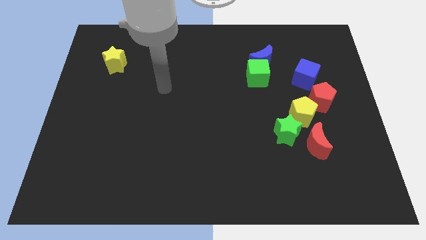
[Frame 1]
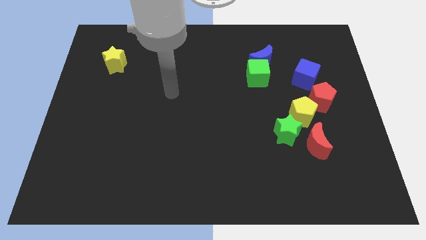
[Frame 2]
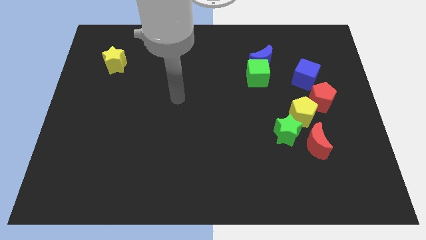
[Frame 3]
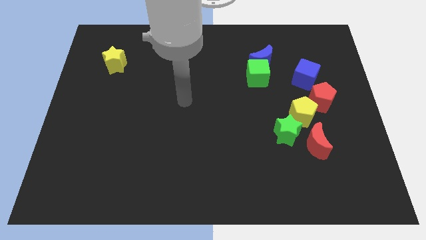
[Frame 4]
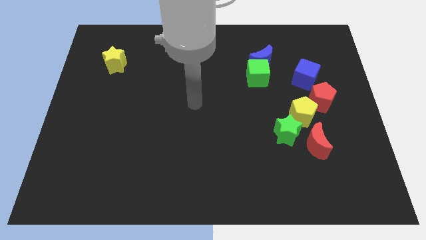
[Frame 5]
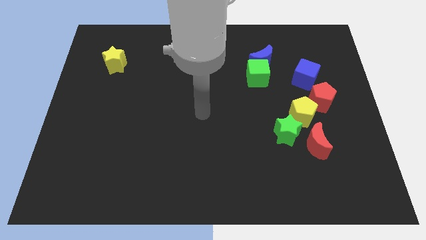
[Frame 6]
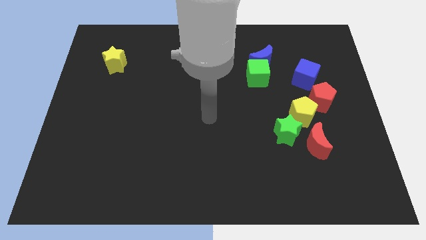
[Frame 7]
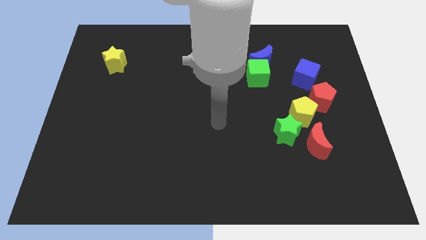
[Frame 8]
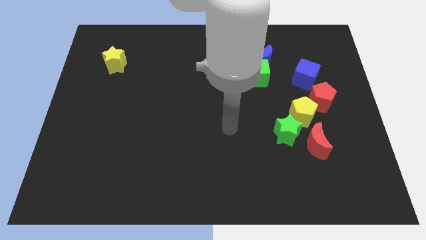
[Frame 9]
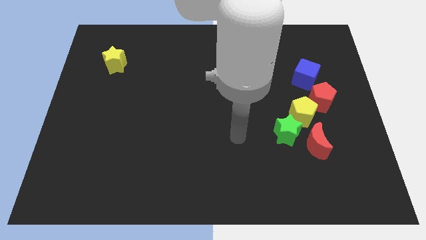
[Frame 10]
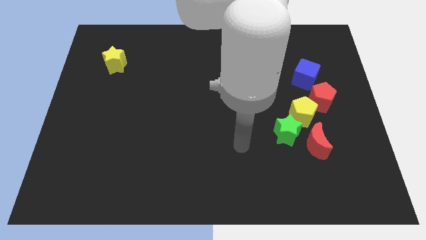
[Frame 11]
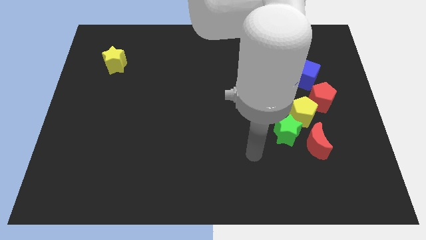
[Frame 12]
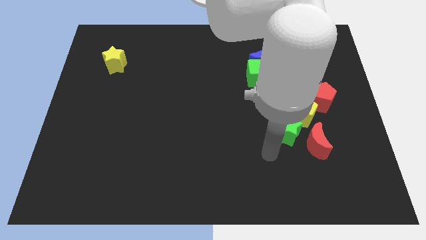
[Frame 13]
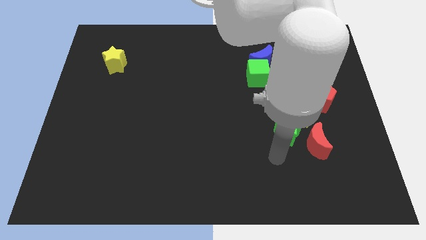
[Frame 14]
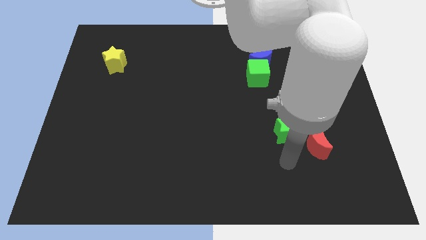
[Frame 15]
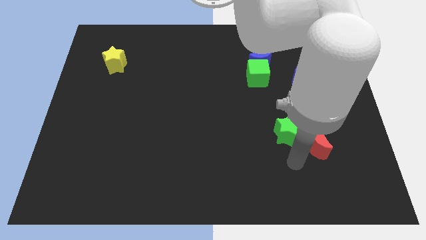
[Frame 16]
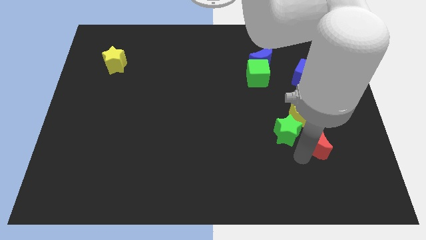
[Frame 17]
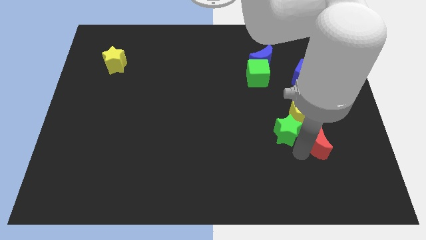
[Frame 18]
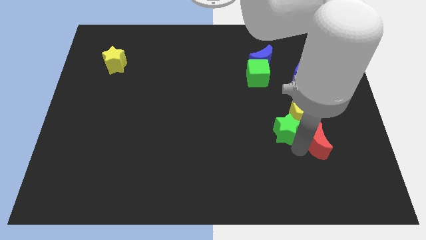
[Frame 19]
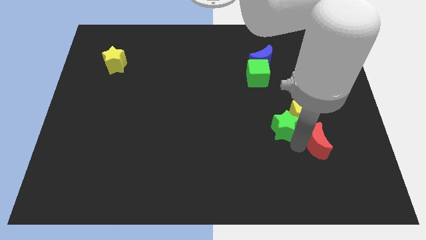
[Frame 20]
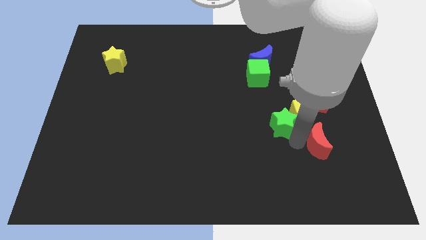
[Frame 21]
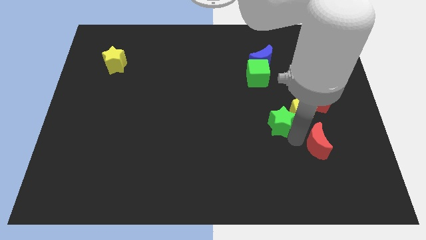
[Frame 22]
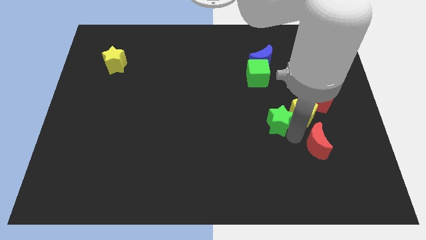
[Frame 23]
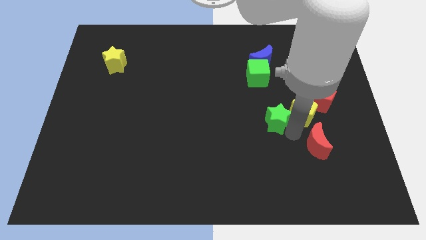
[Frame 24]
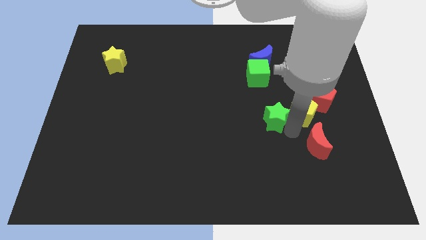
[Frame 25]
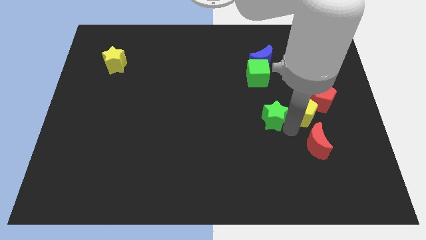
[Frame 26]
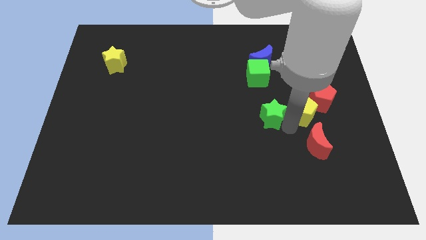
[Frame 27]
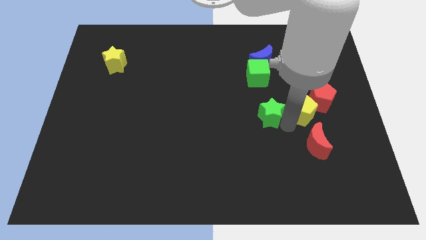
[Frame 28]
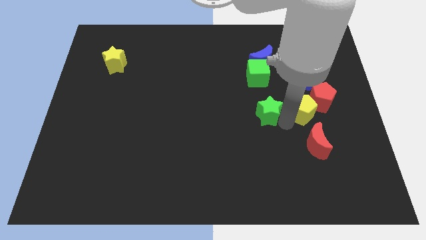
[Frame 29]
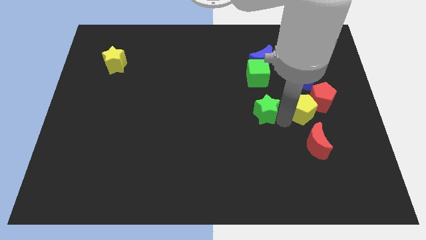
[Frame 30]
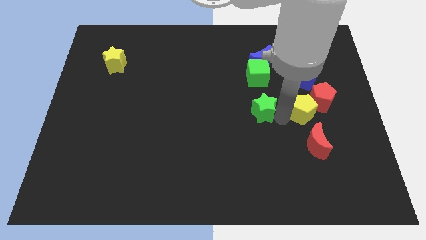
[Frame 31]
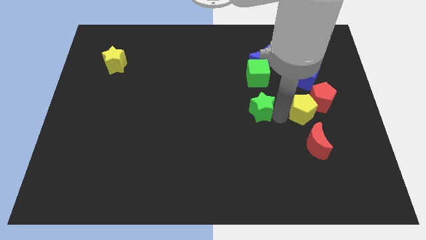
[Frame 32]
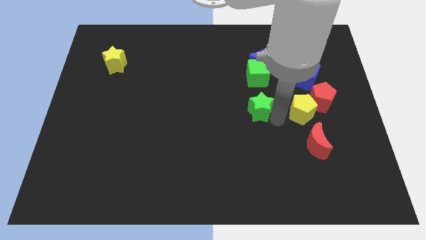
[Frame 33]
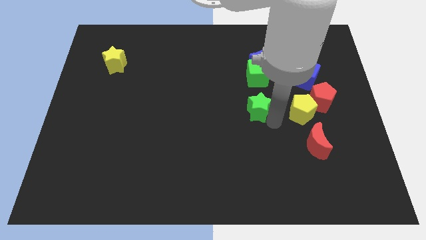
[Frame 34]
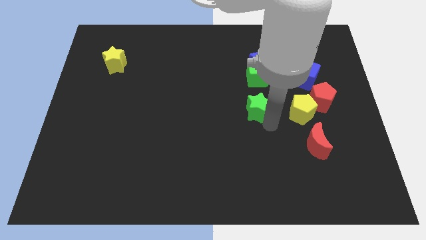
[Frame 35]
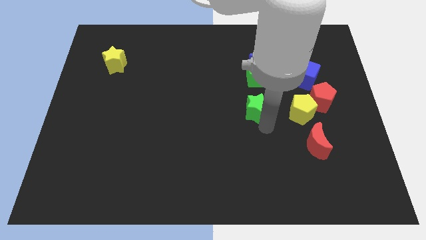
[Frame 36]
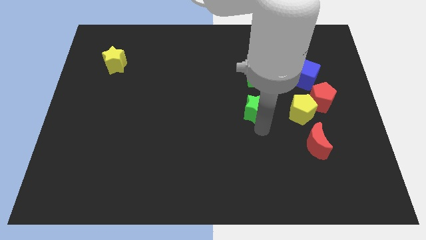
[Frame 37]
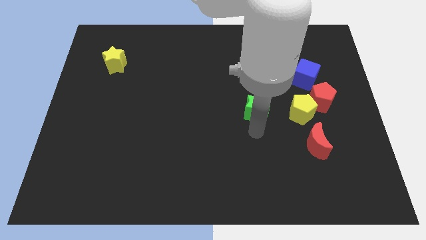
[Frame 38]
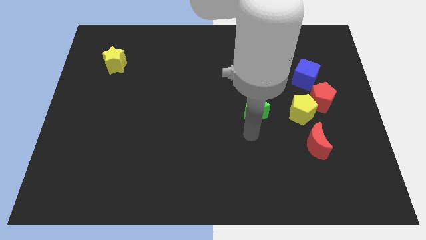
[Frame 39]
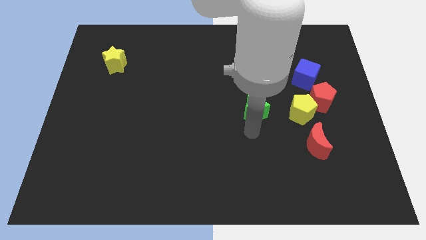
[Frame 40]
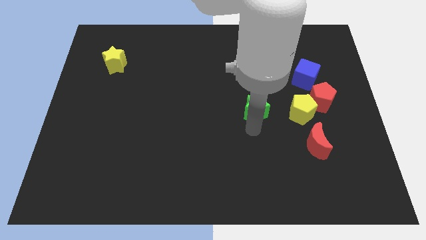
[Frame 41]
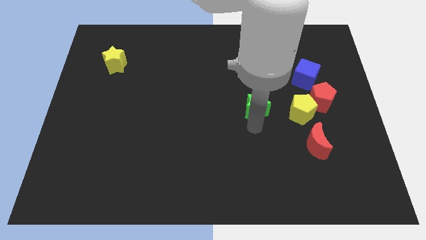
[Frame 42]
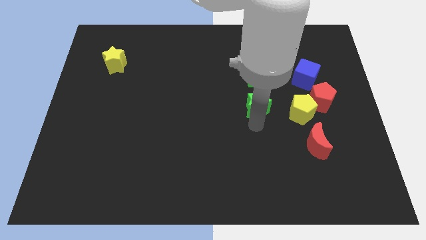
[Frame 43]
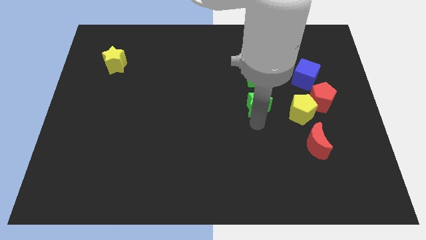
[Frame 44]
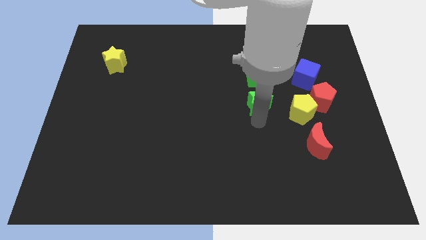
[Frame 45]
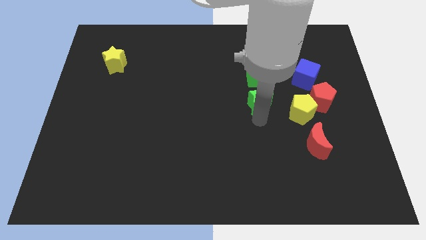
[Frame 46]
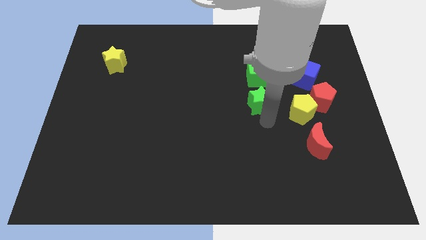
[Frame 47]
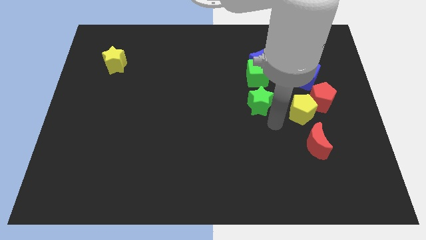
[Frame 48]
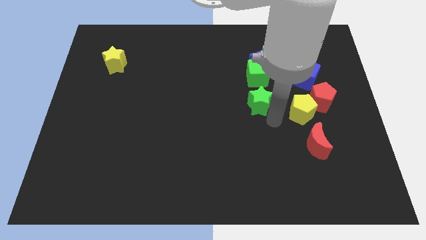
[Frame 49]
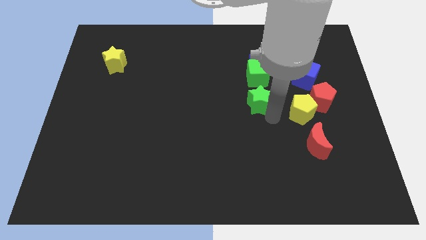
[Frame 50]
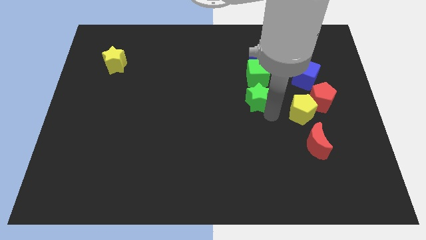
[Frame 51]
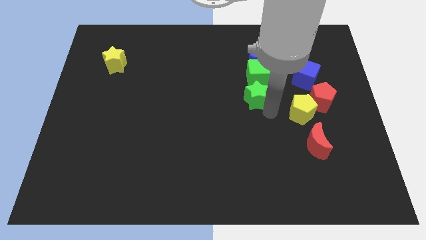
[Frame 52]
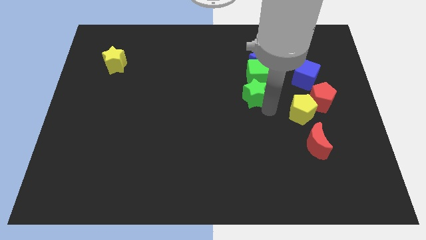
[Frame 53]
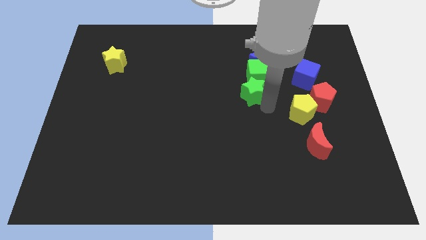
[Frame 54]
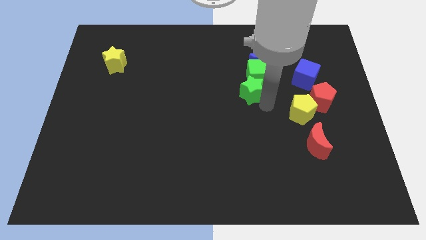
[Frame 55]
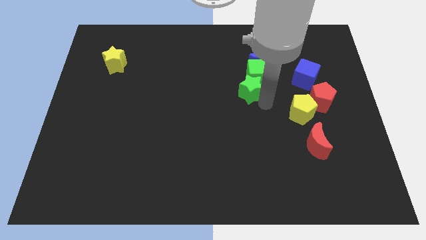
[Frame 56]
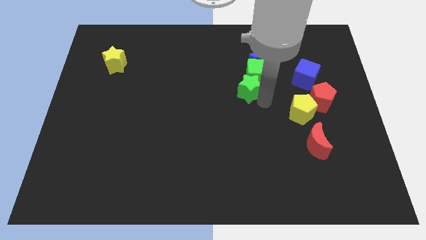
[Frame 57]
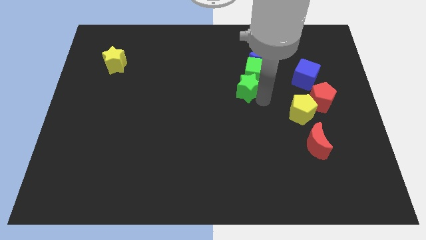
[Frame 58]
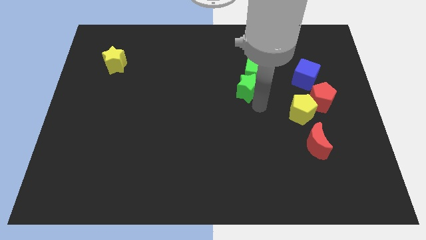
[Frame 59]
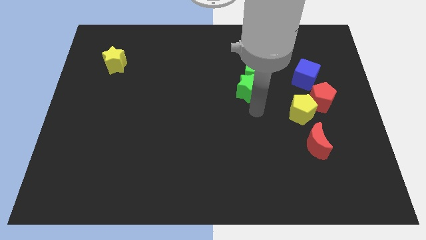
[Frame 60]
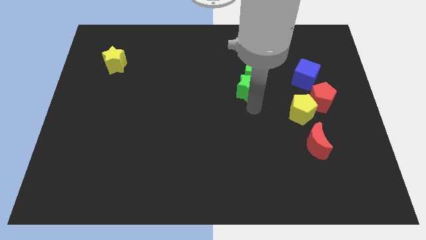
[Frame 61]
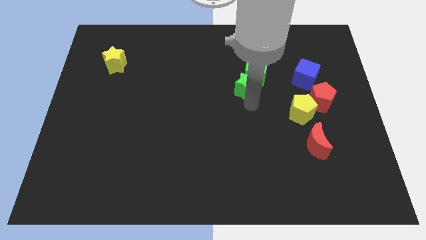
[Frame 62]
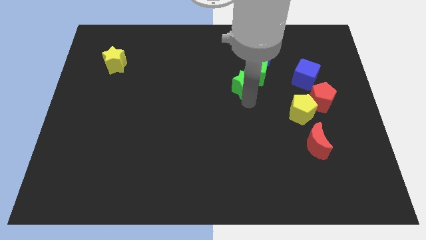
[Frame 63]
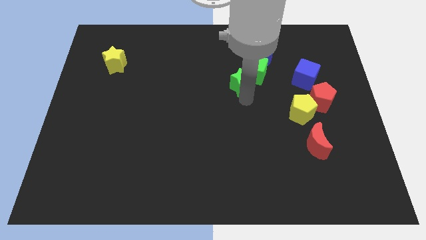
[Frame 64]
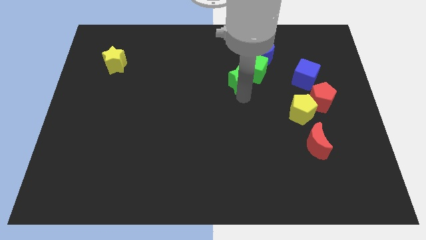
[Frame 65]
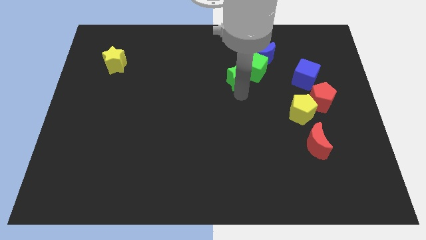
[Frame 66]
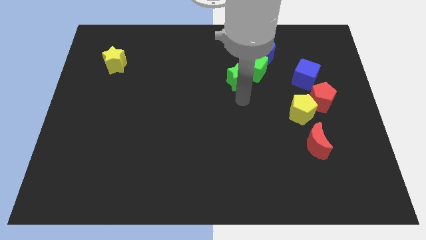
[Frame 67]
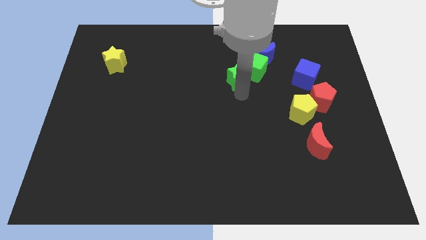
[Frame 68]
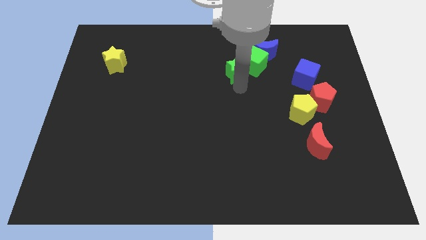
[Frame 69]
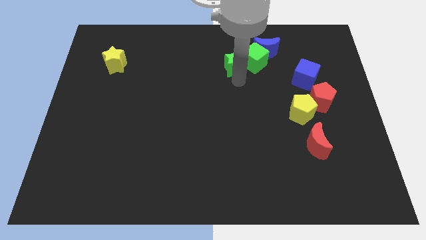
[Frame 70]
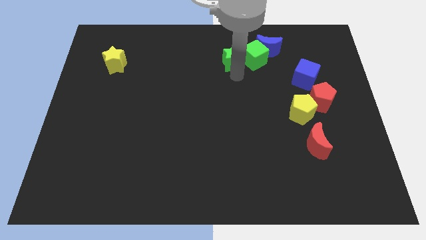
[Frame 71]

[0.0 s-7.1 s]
slide the green star to the top left side of the green cube
